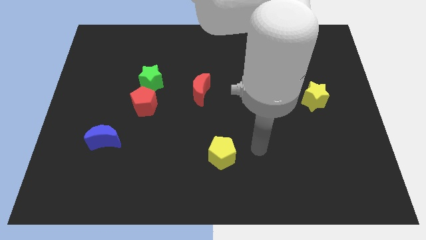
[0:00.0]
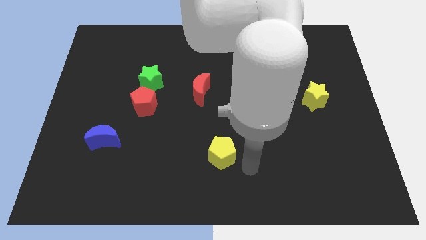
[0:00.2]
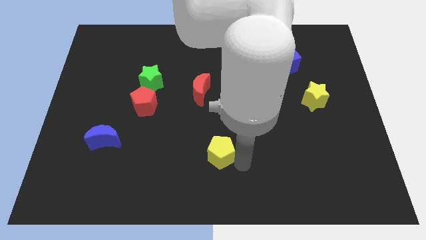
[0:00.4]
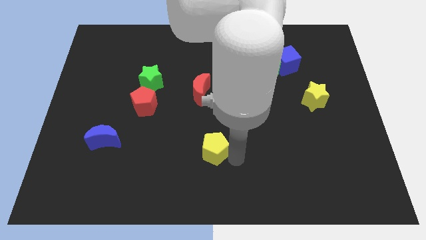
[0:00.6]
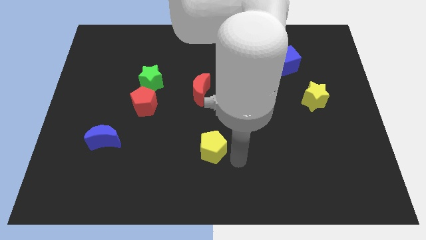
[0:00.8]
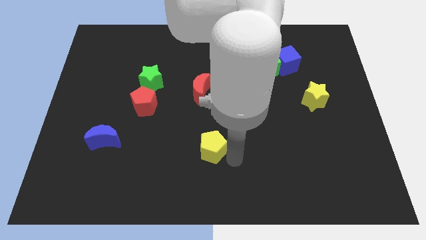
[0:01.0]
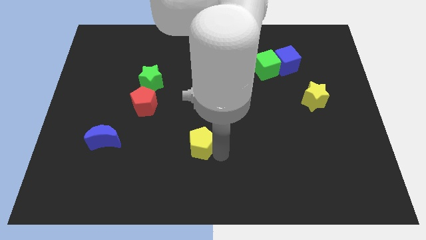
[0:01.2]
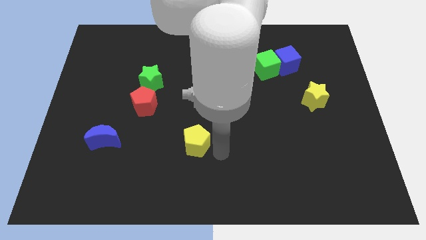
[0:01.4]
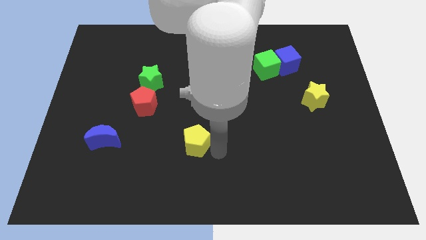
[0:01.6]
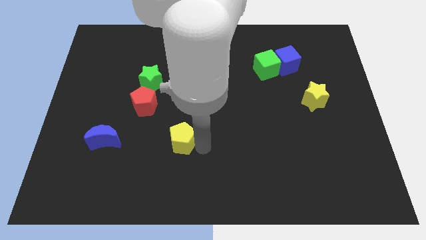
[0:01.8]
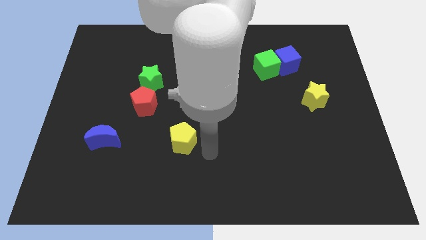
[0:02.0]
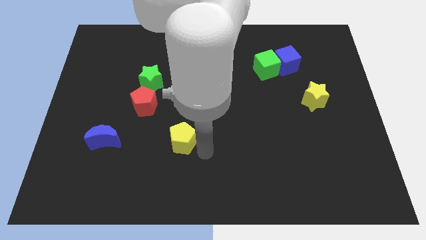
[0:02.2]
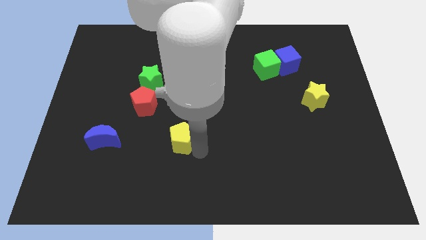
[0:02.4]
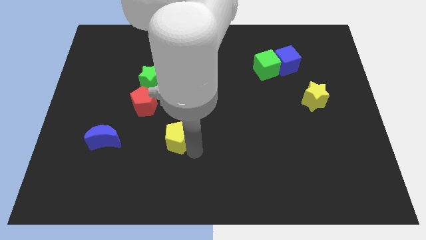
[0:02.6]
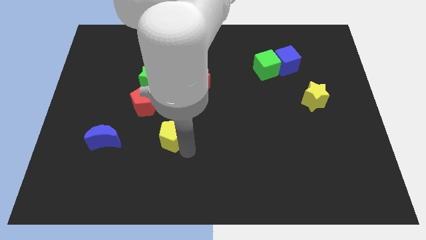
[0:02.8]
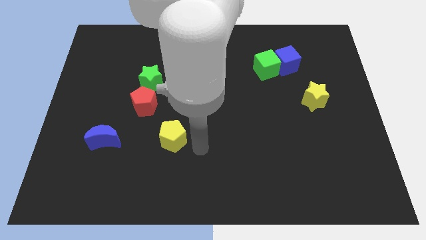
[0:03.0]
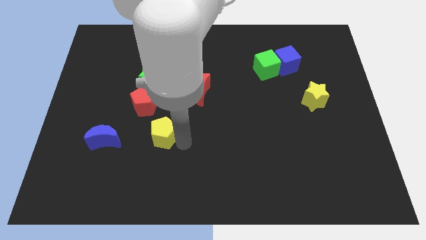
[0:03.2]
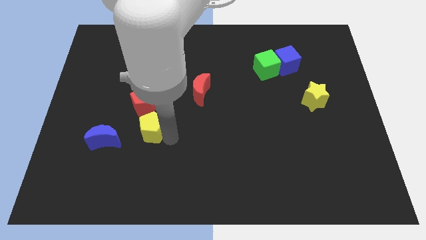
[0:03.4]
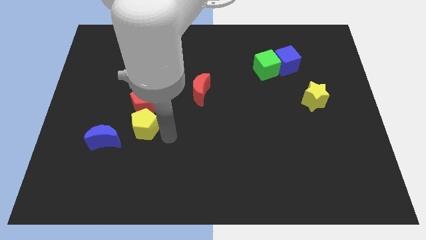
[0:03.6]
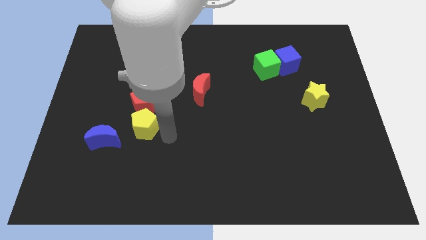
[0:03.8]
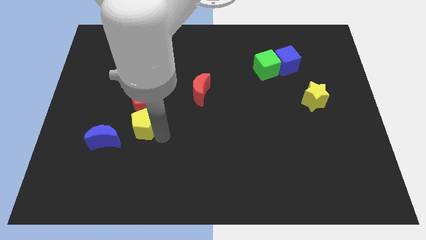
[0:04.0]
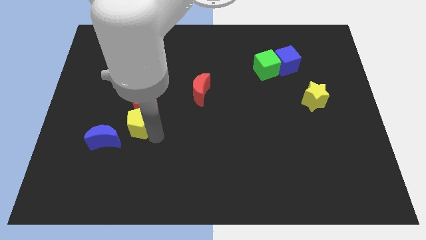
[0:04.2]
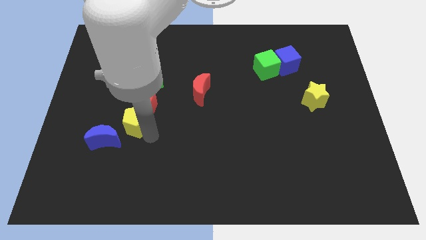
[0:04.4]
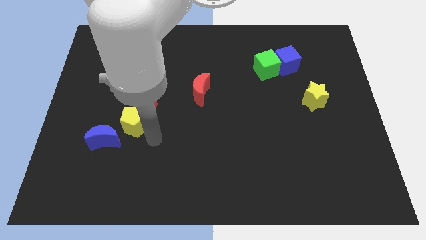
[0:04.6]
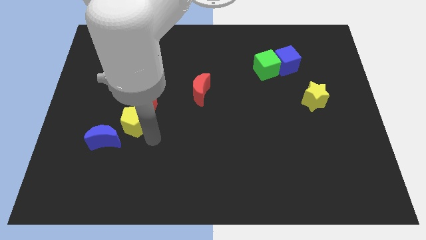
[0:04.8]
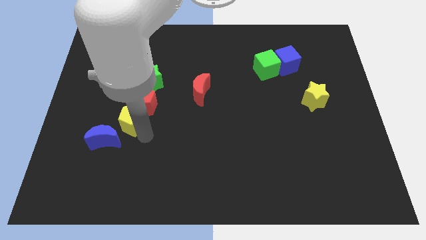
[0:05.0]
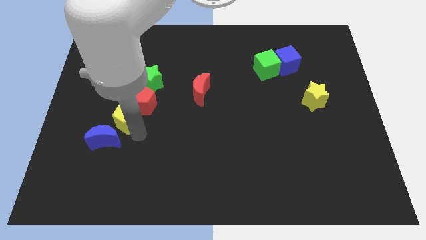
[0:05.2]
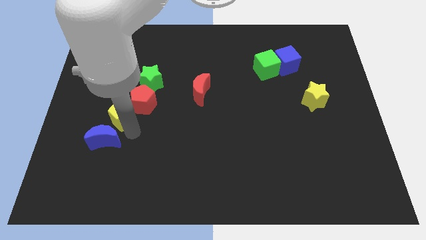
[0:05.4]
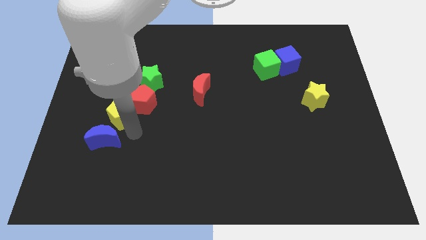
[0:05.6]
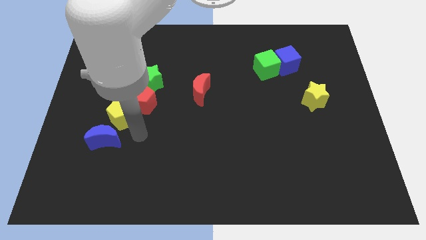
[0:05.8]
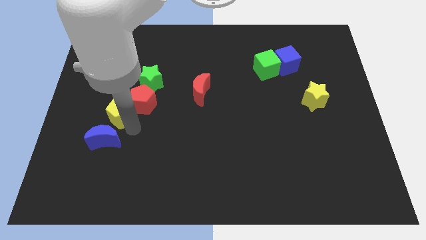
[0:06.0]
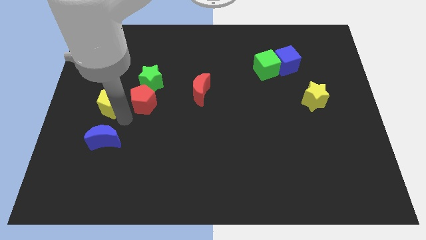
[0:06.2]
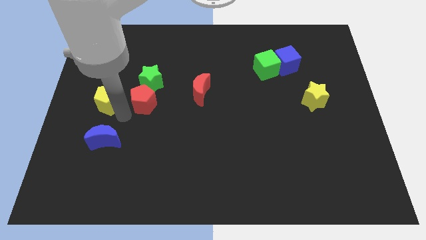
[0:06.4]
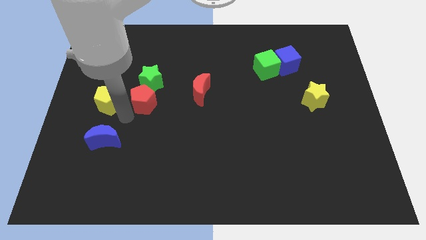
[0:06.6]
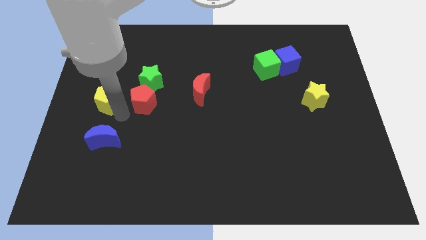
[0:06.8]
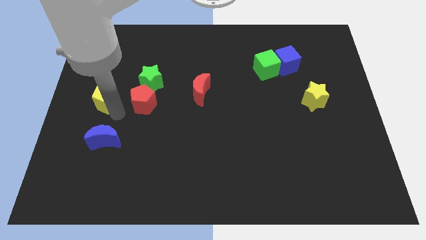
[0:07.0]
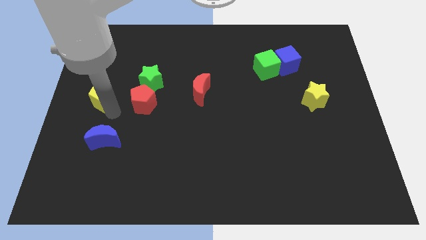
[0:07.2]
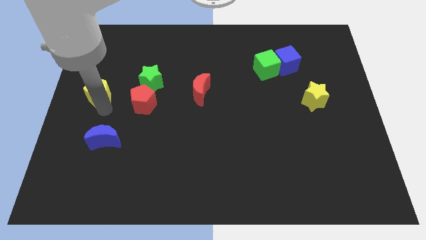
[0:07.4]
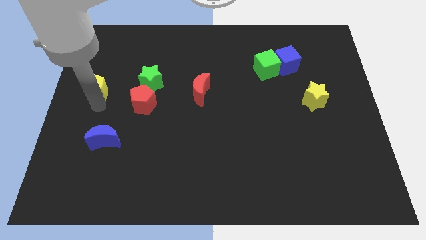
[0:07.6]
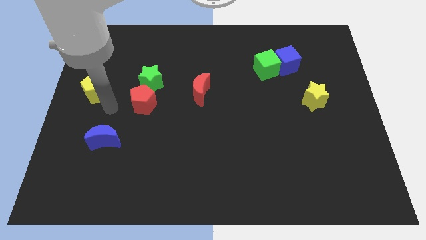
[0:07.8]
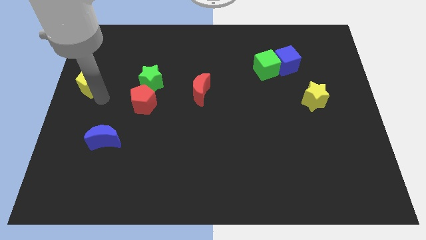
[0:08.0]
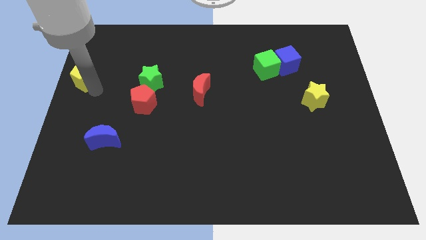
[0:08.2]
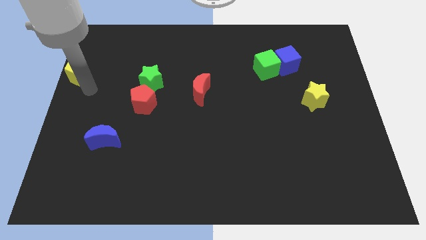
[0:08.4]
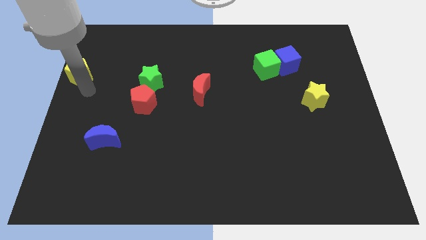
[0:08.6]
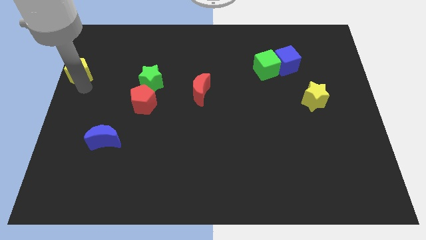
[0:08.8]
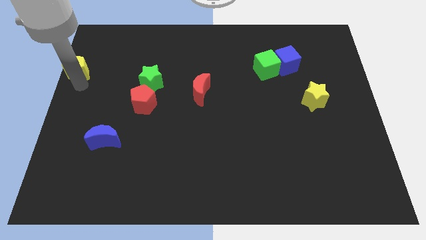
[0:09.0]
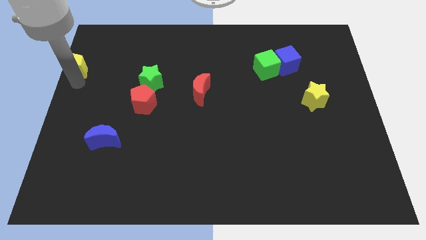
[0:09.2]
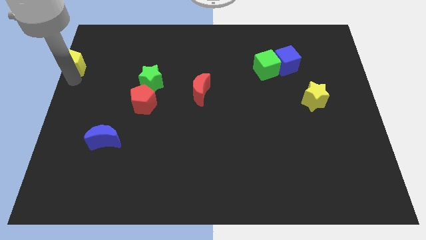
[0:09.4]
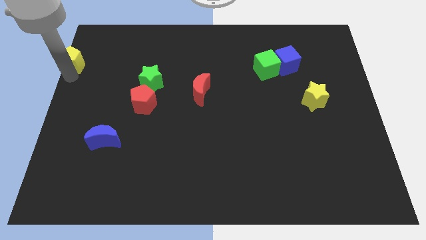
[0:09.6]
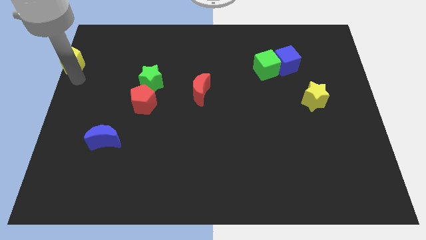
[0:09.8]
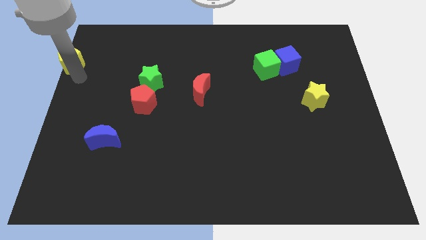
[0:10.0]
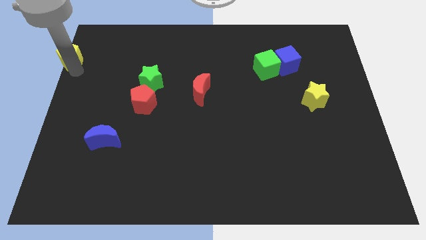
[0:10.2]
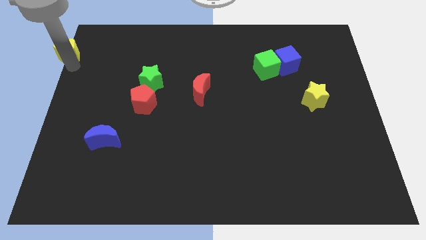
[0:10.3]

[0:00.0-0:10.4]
move the yellow pentagon to the upper left corner

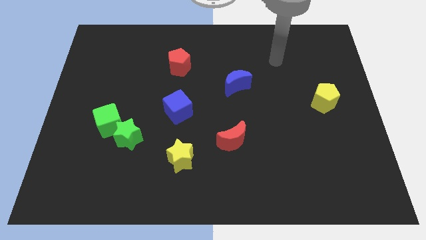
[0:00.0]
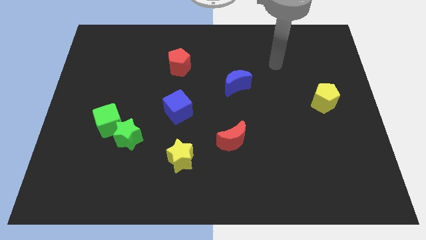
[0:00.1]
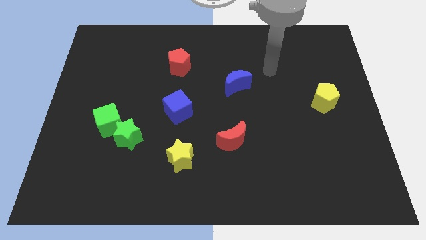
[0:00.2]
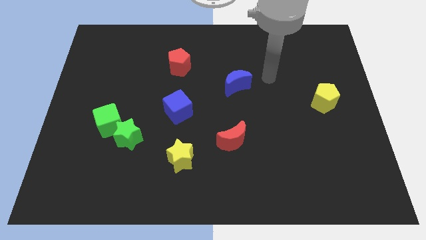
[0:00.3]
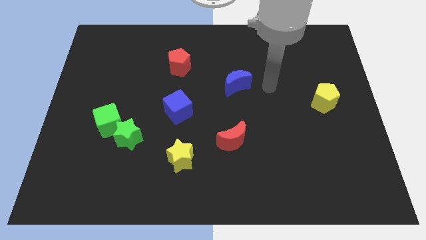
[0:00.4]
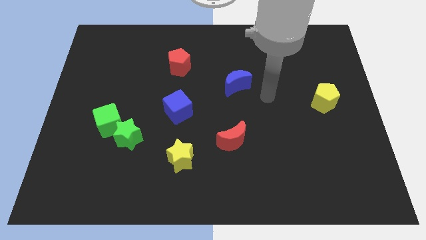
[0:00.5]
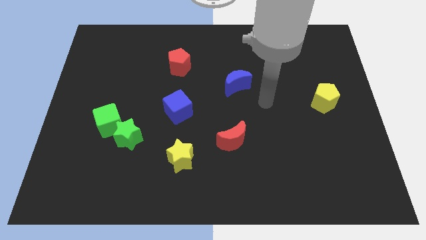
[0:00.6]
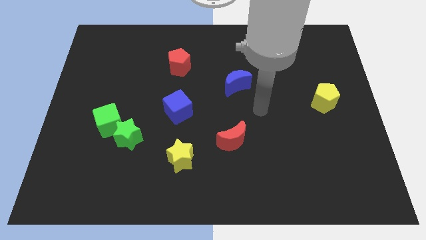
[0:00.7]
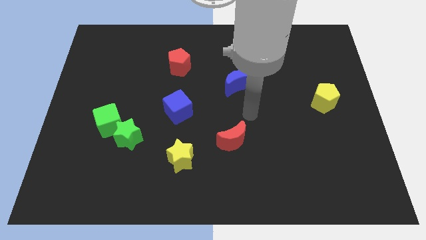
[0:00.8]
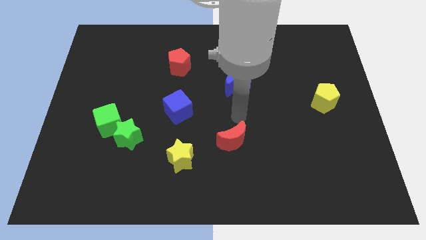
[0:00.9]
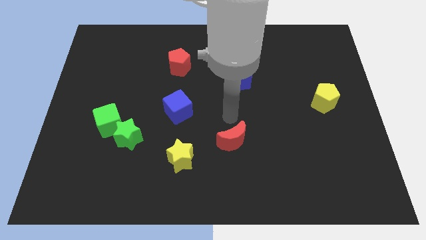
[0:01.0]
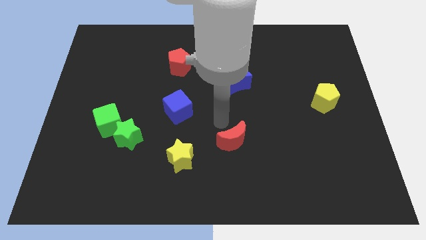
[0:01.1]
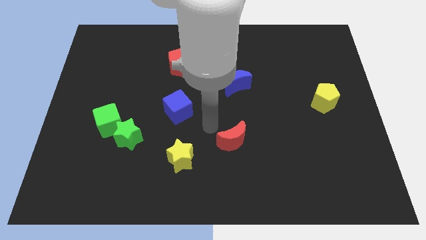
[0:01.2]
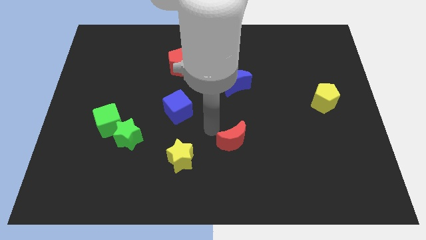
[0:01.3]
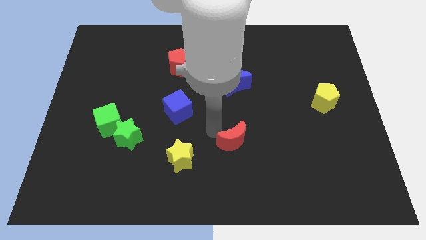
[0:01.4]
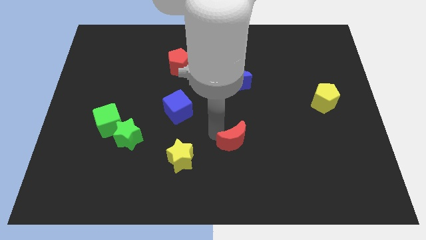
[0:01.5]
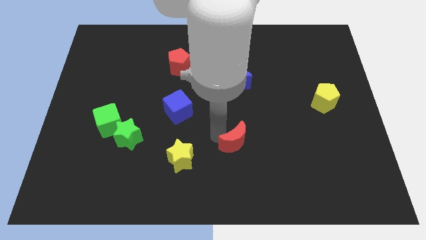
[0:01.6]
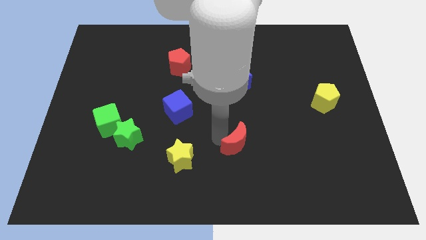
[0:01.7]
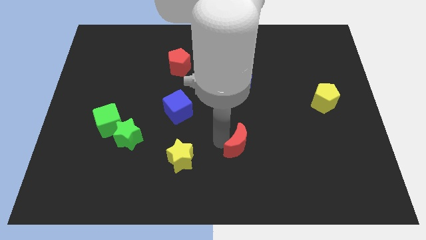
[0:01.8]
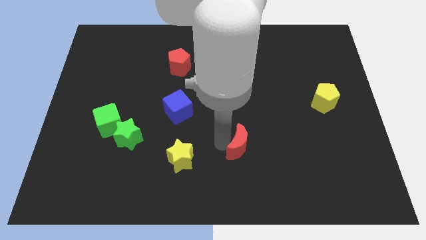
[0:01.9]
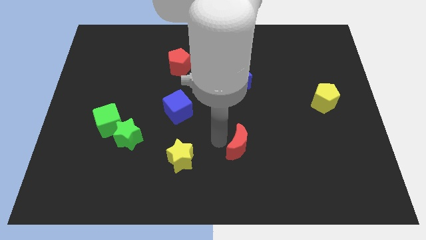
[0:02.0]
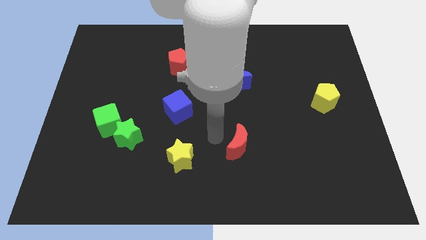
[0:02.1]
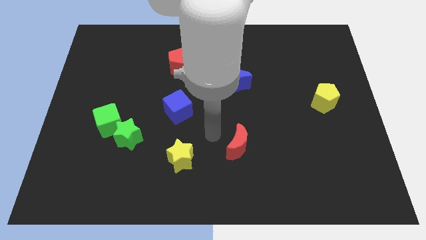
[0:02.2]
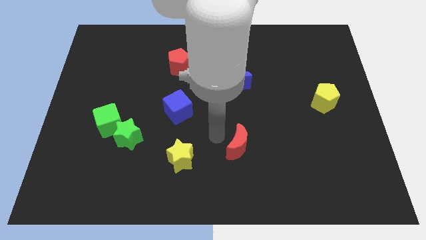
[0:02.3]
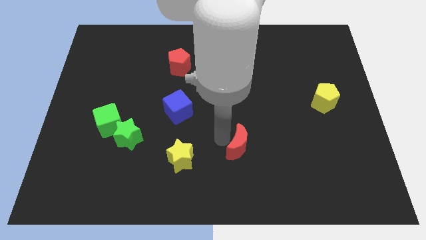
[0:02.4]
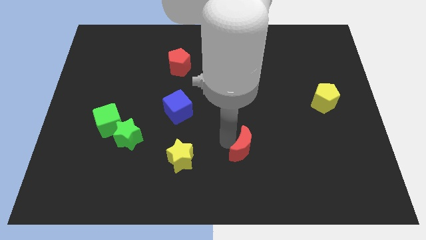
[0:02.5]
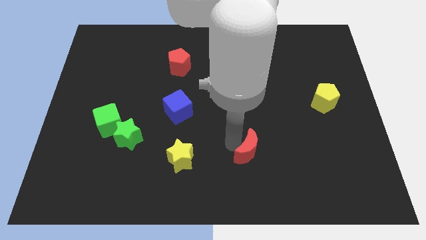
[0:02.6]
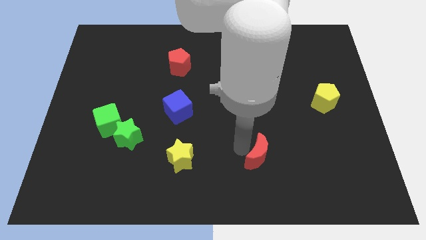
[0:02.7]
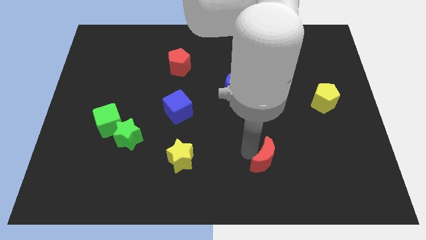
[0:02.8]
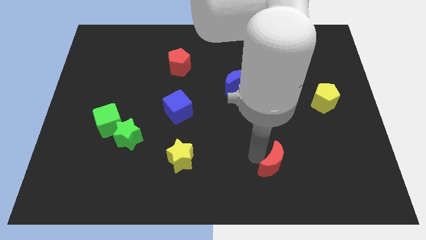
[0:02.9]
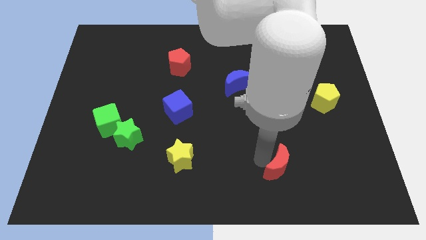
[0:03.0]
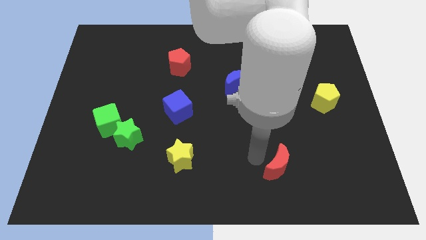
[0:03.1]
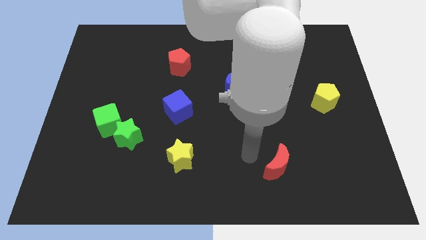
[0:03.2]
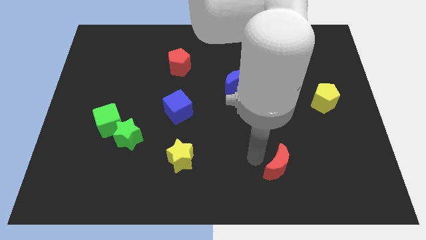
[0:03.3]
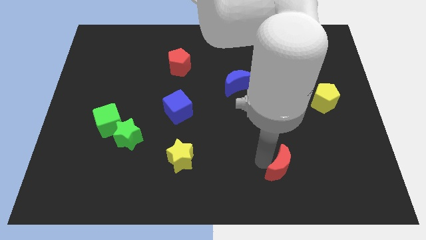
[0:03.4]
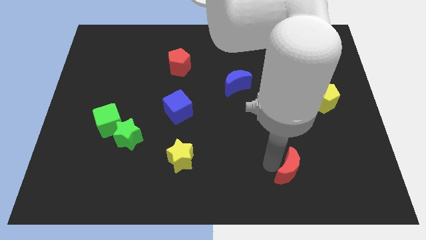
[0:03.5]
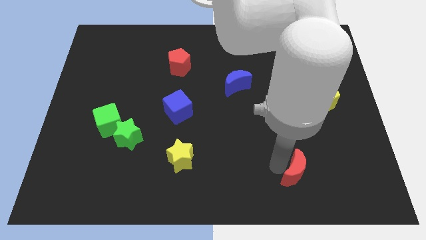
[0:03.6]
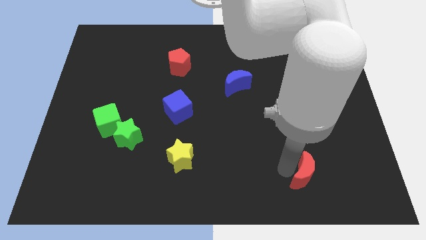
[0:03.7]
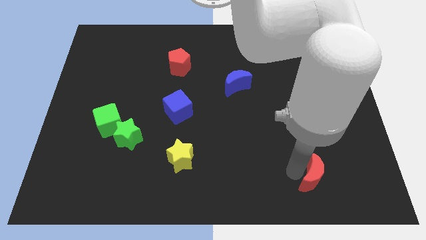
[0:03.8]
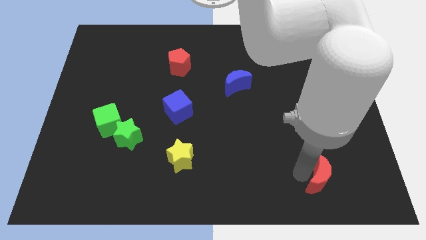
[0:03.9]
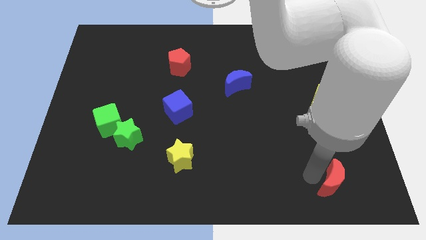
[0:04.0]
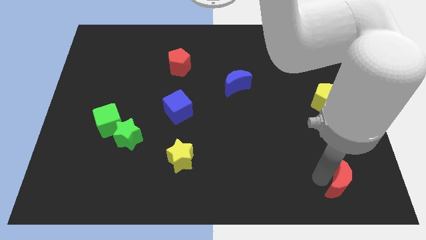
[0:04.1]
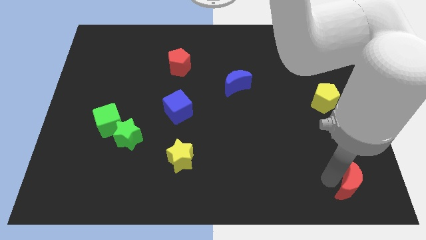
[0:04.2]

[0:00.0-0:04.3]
put the red moon to the bottom right of the board
